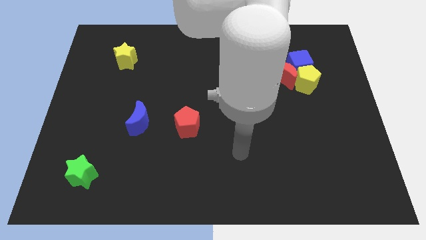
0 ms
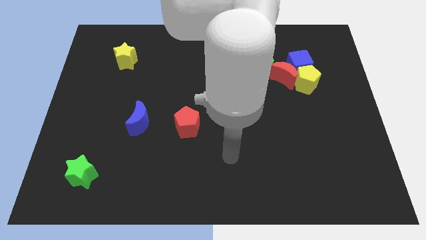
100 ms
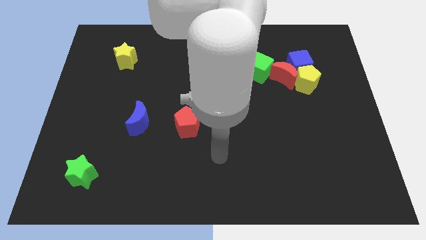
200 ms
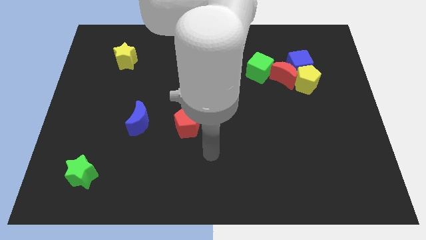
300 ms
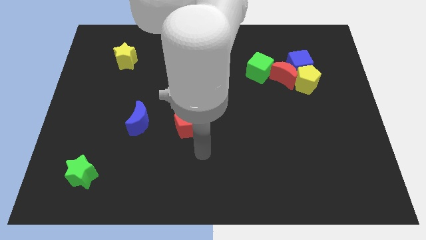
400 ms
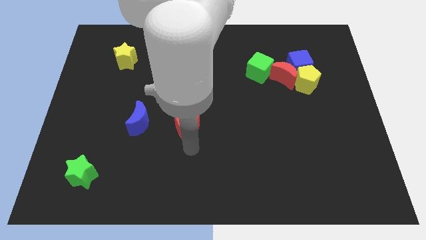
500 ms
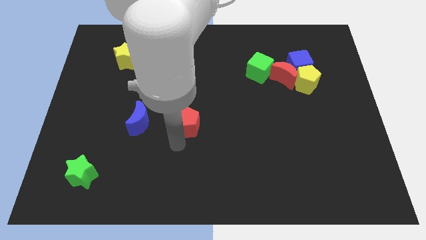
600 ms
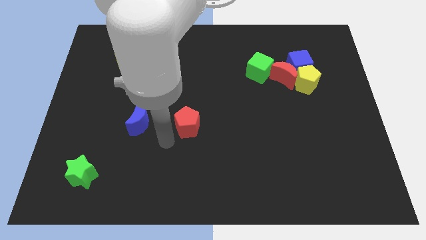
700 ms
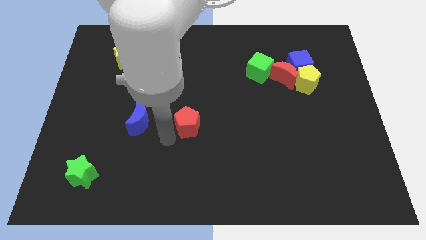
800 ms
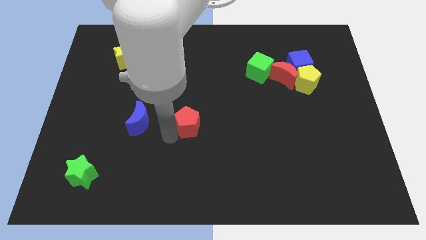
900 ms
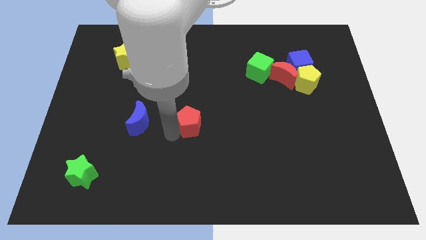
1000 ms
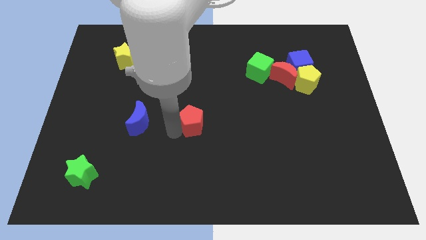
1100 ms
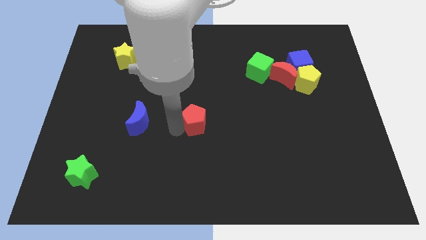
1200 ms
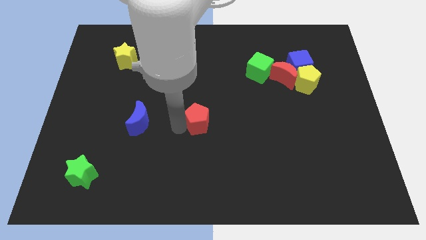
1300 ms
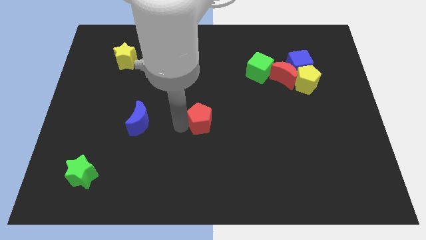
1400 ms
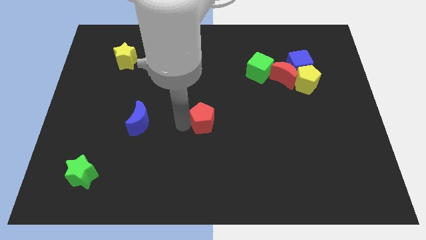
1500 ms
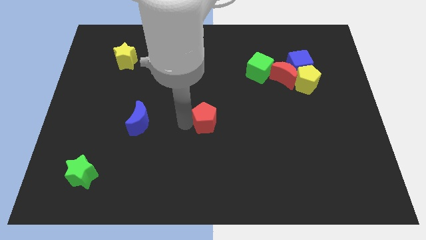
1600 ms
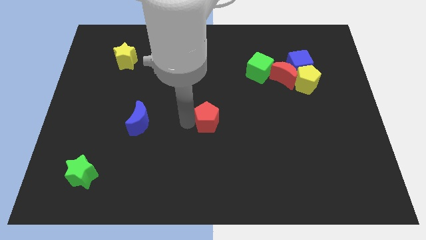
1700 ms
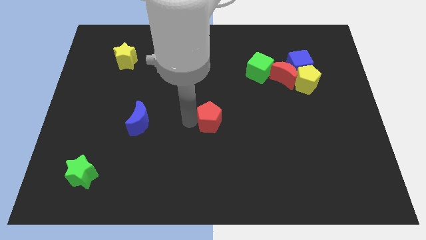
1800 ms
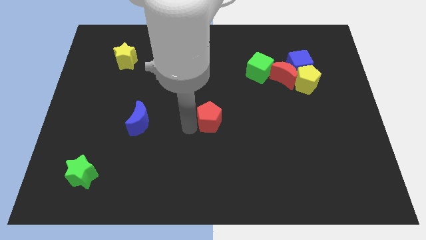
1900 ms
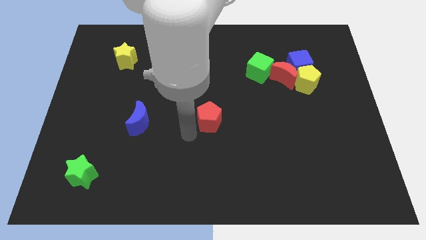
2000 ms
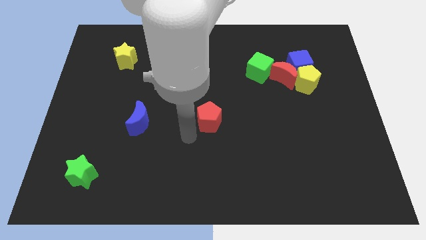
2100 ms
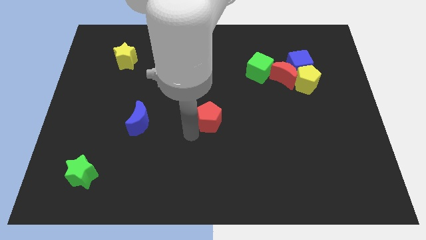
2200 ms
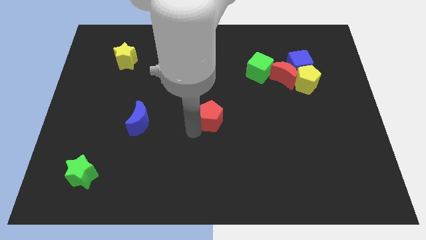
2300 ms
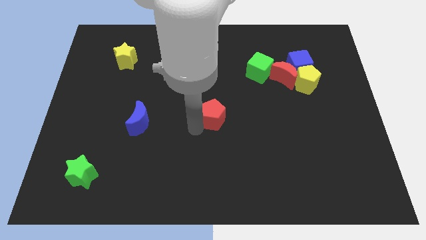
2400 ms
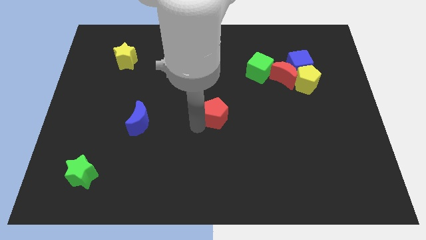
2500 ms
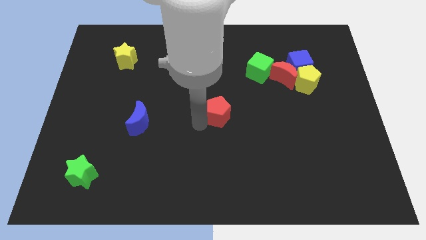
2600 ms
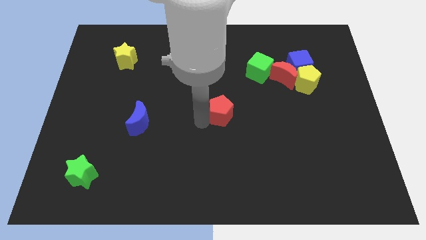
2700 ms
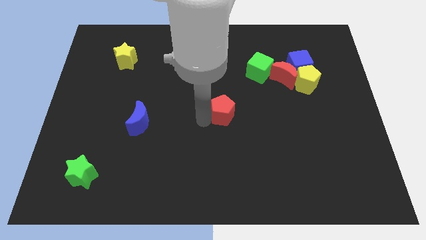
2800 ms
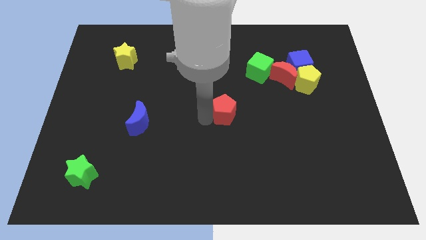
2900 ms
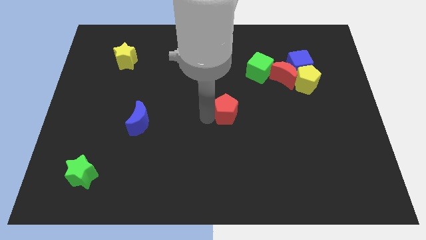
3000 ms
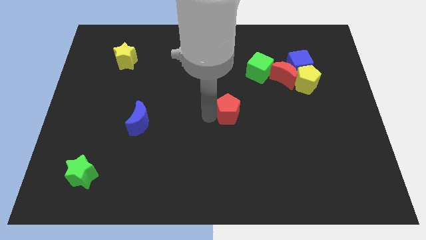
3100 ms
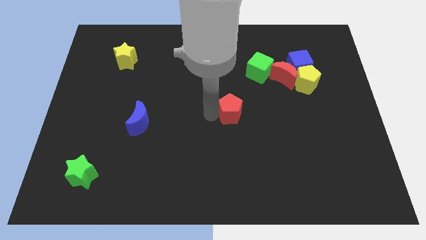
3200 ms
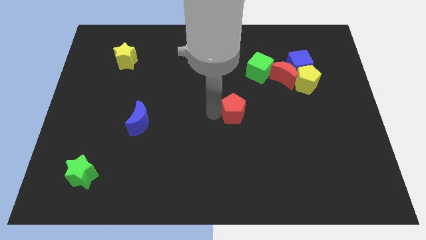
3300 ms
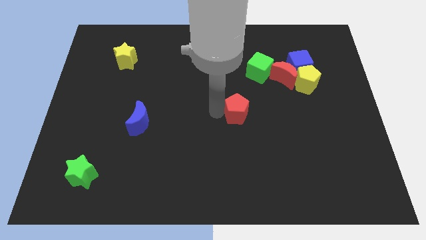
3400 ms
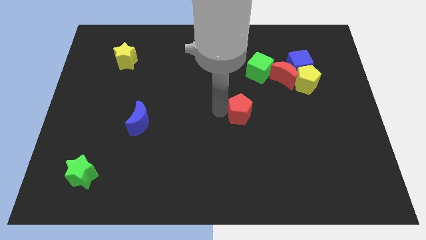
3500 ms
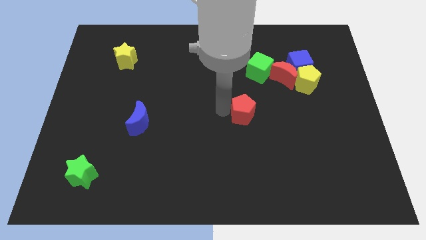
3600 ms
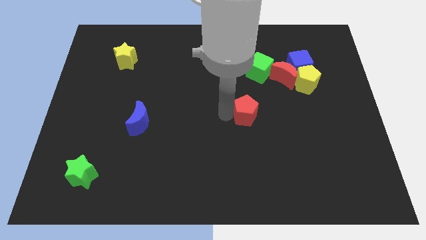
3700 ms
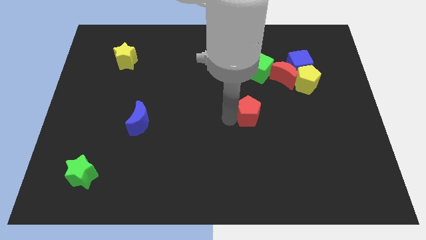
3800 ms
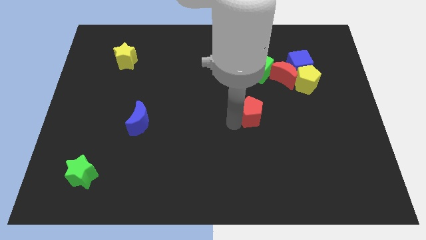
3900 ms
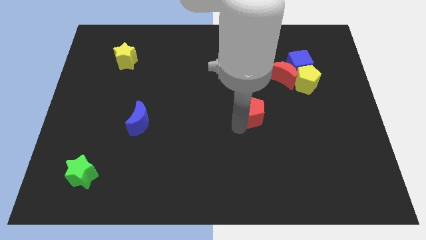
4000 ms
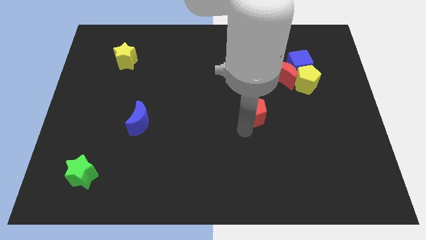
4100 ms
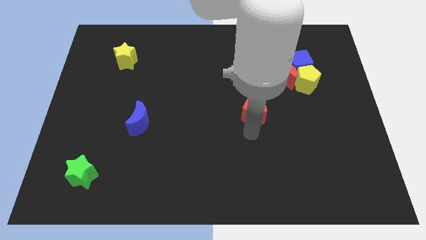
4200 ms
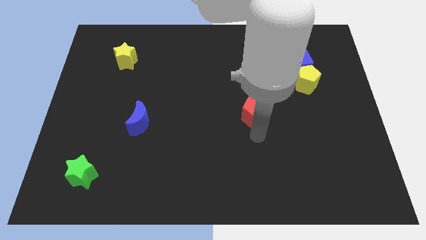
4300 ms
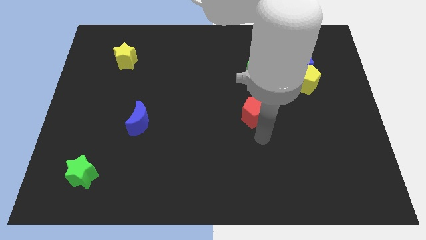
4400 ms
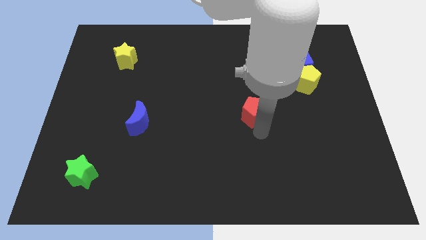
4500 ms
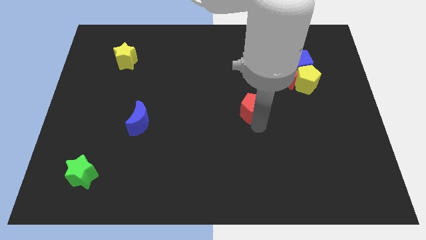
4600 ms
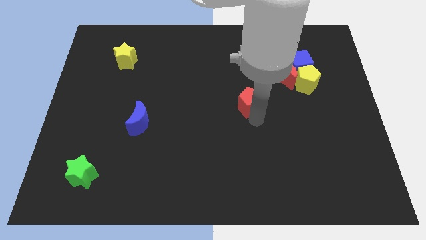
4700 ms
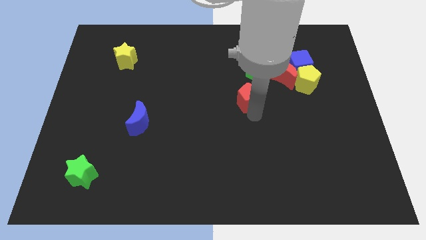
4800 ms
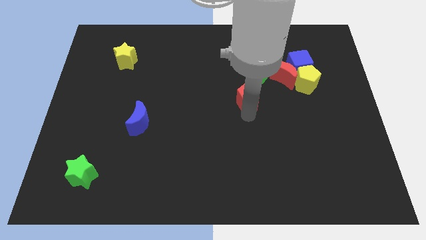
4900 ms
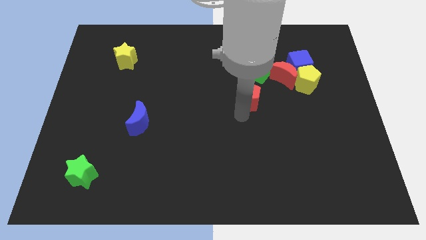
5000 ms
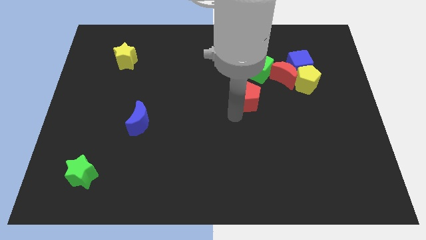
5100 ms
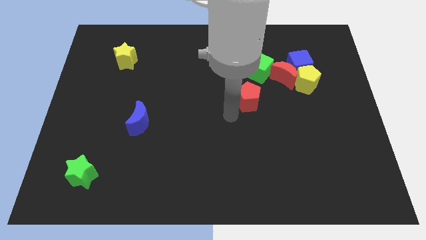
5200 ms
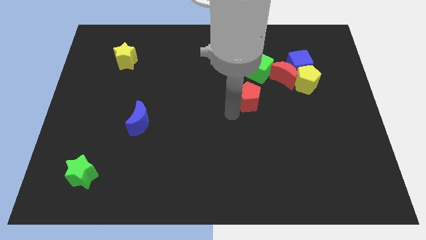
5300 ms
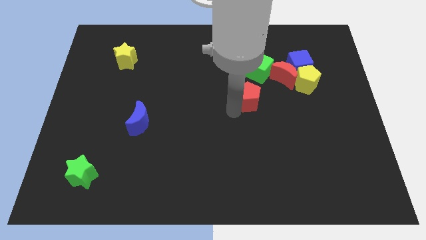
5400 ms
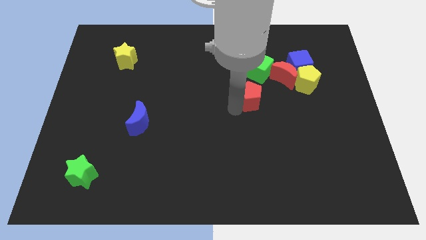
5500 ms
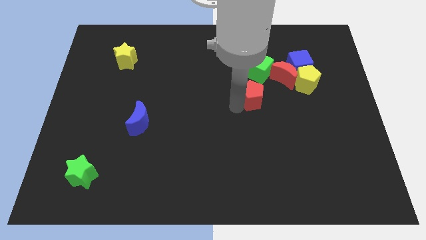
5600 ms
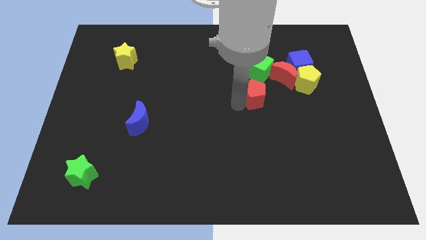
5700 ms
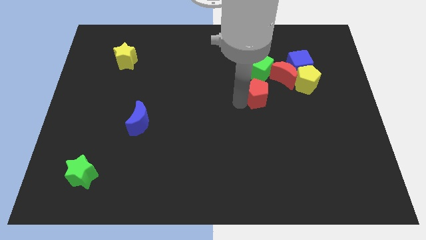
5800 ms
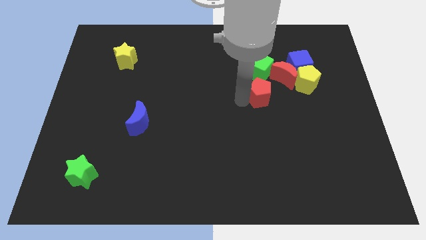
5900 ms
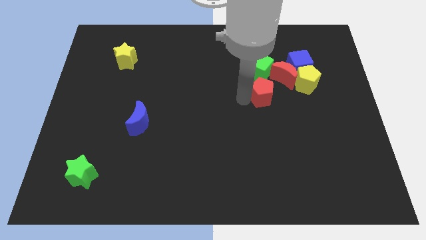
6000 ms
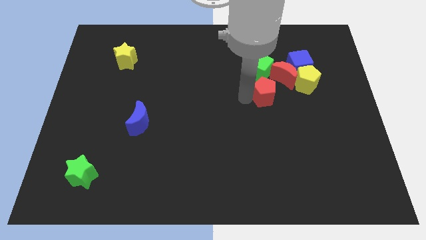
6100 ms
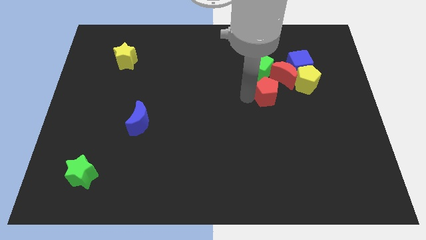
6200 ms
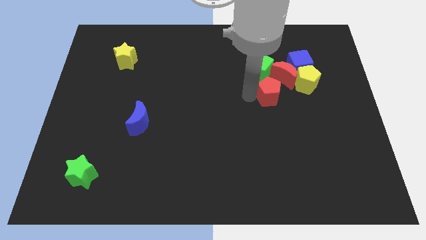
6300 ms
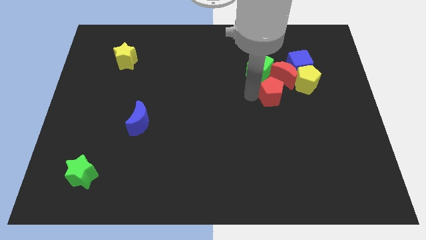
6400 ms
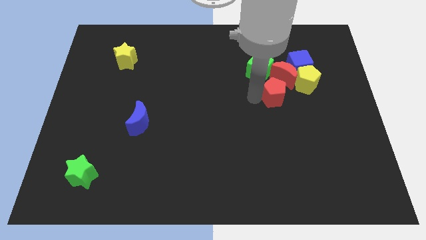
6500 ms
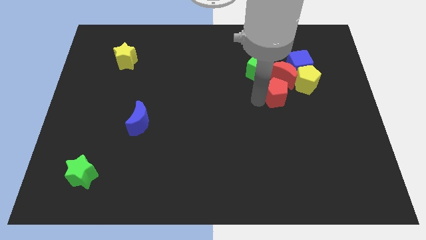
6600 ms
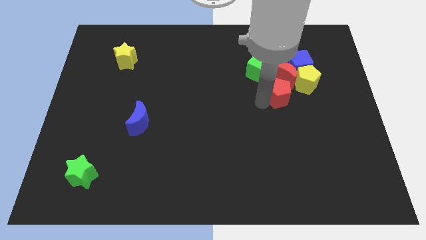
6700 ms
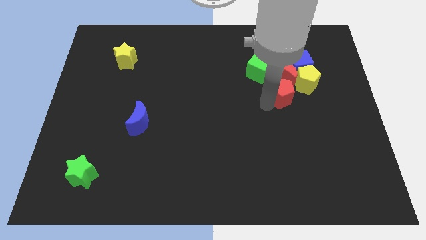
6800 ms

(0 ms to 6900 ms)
slide the red pentagon next to the red moon
